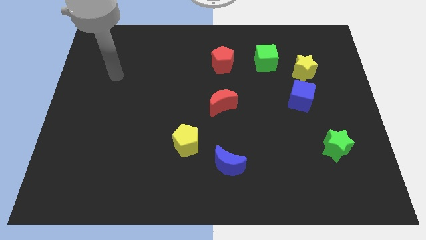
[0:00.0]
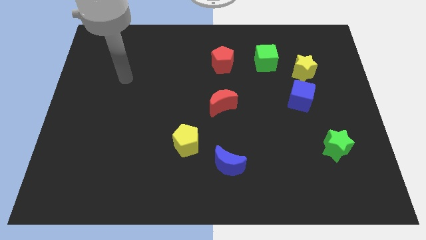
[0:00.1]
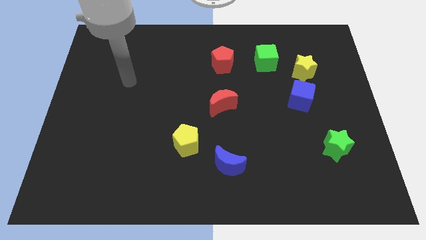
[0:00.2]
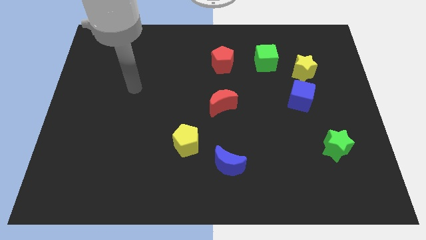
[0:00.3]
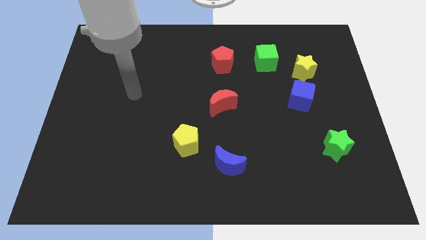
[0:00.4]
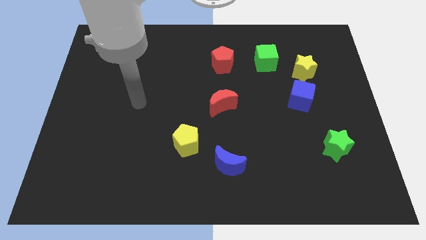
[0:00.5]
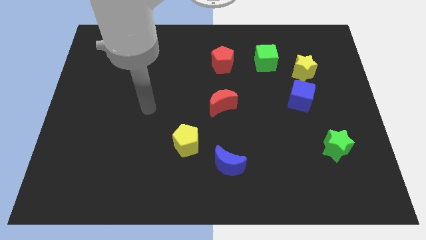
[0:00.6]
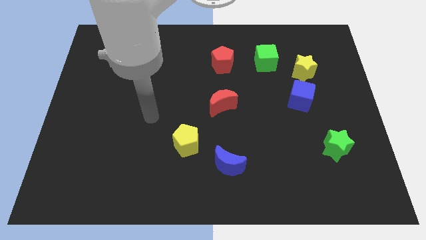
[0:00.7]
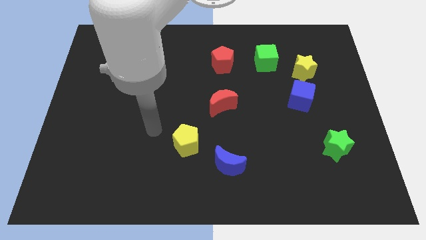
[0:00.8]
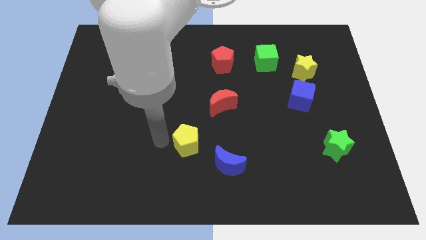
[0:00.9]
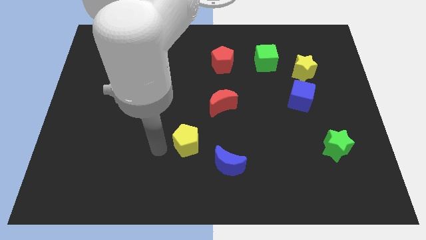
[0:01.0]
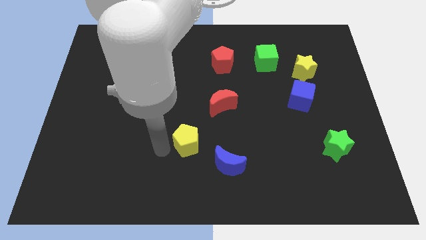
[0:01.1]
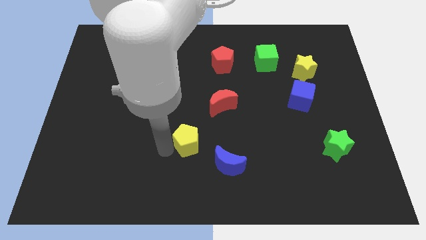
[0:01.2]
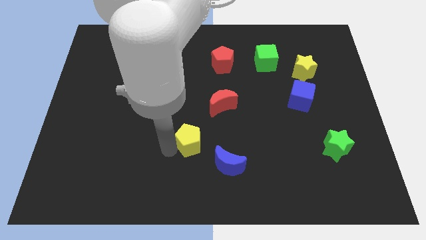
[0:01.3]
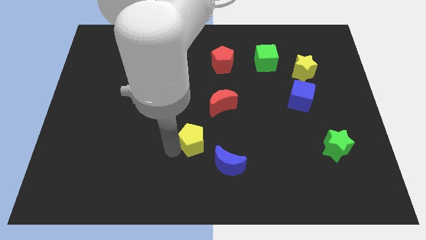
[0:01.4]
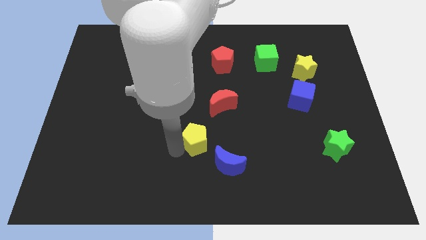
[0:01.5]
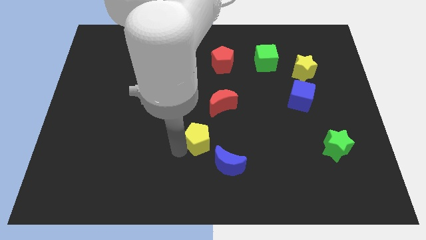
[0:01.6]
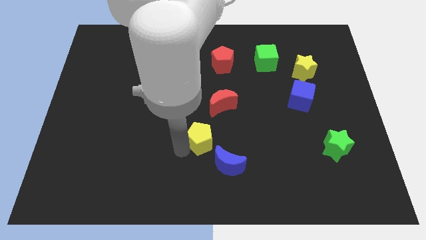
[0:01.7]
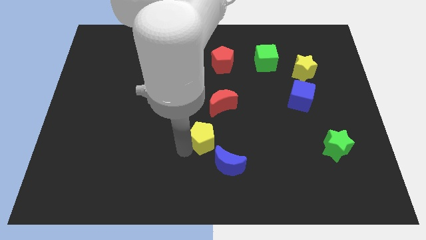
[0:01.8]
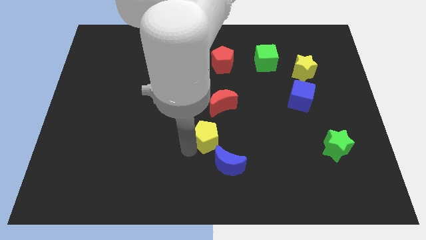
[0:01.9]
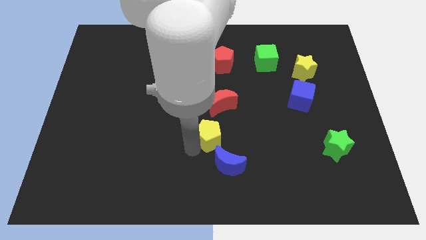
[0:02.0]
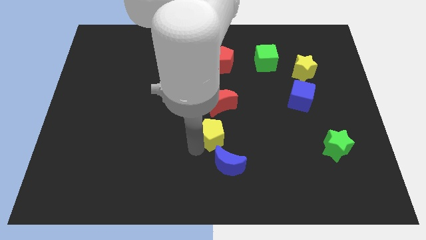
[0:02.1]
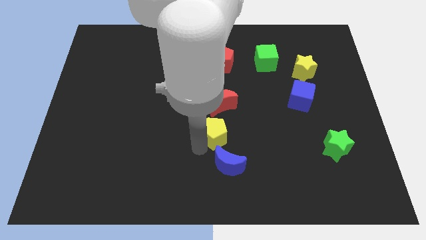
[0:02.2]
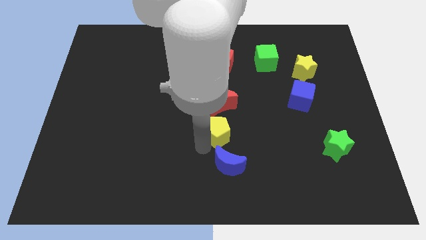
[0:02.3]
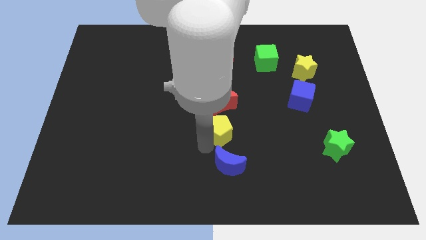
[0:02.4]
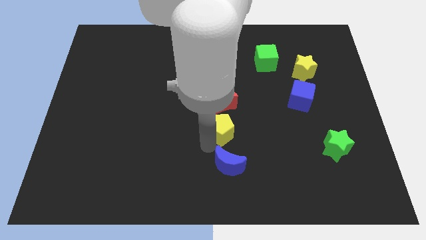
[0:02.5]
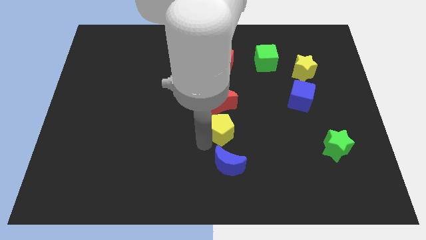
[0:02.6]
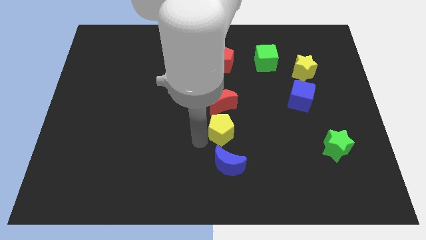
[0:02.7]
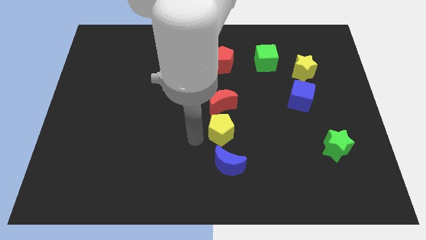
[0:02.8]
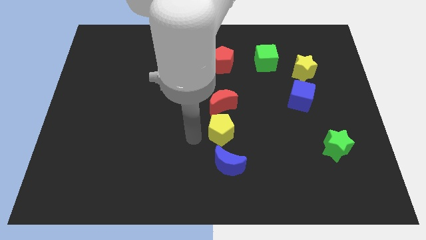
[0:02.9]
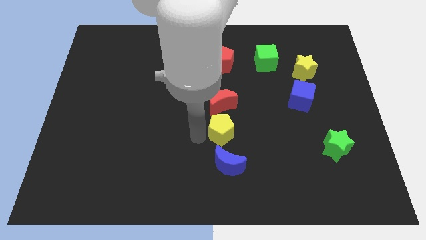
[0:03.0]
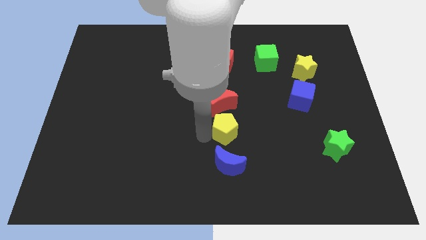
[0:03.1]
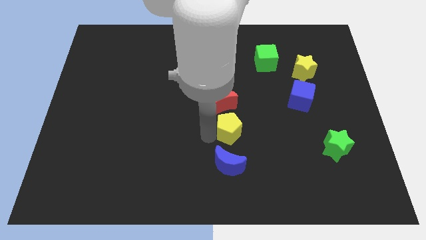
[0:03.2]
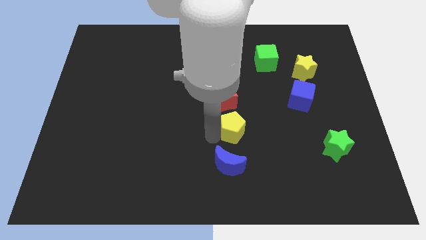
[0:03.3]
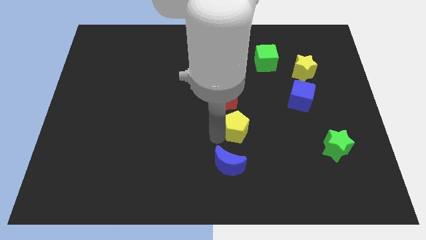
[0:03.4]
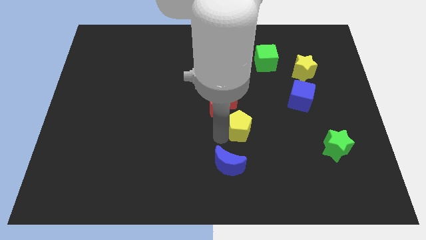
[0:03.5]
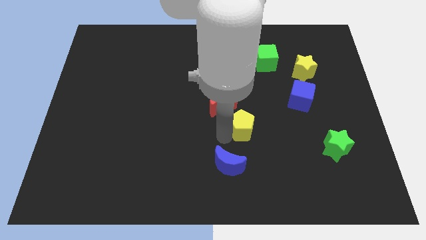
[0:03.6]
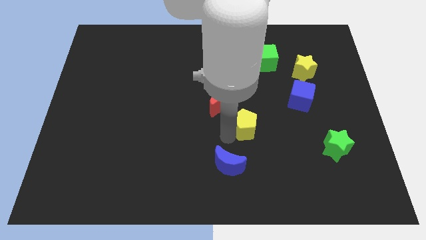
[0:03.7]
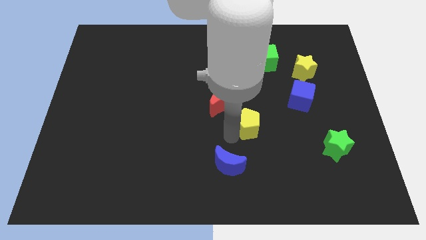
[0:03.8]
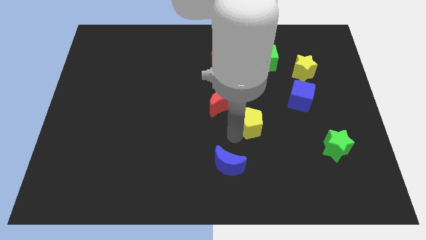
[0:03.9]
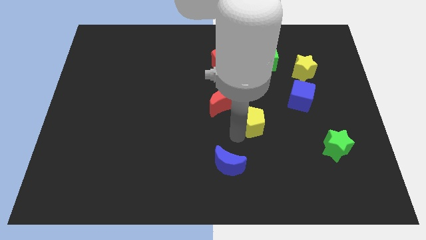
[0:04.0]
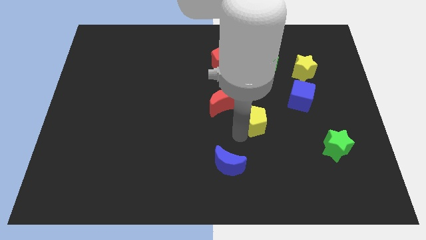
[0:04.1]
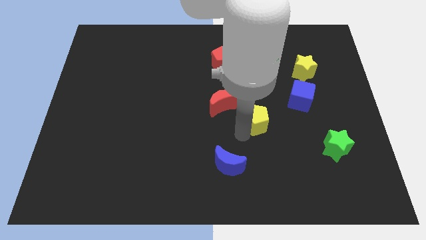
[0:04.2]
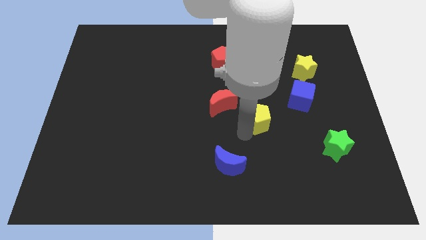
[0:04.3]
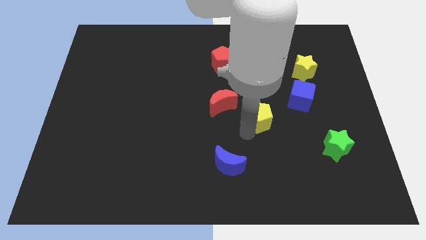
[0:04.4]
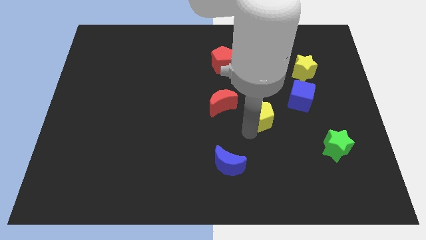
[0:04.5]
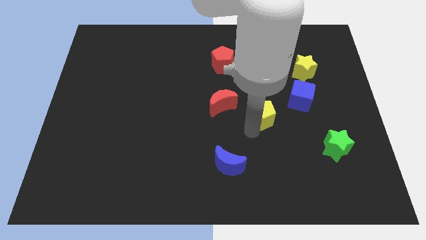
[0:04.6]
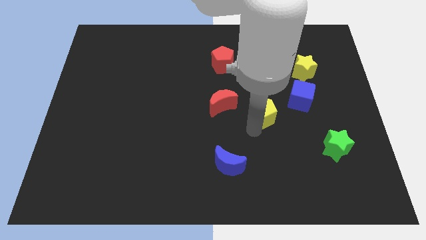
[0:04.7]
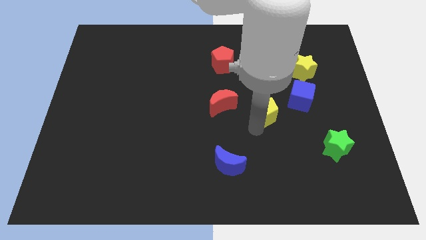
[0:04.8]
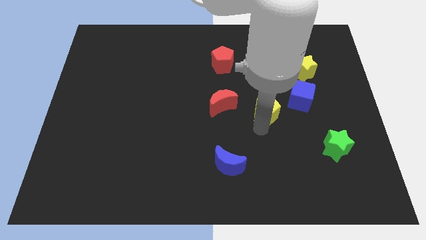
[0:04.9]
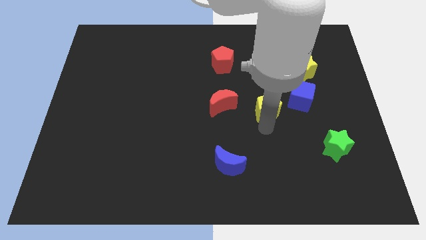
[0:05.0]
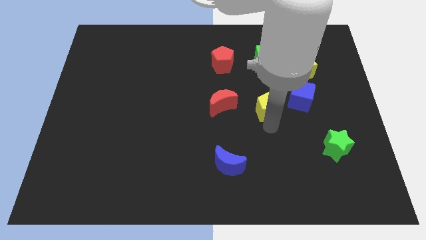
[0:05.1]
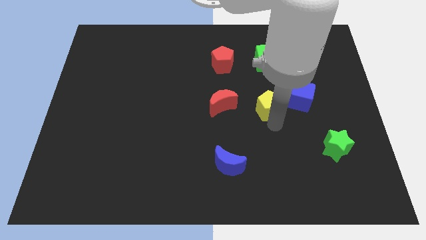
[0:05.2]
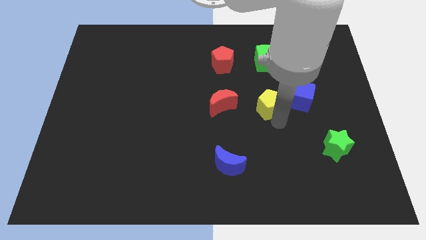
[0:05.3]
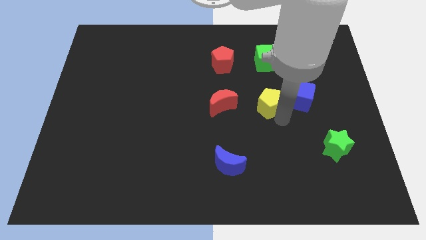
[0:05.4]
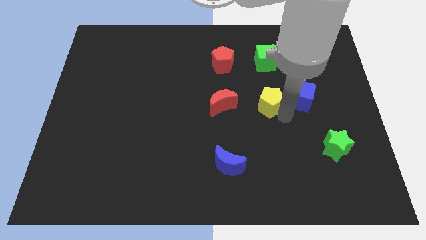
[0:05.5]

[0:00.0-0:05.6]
move the yellow pentagon up and then right

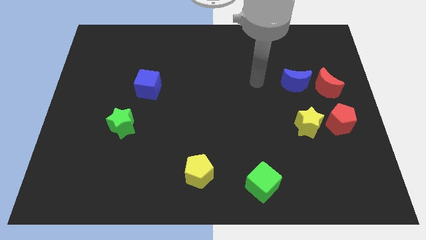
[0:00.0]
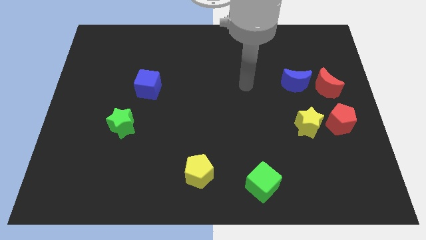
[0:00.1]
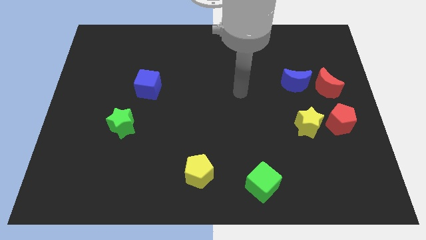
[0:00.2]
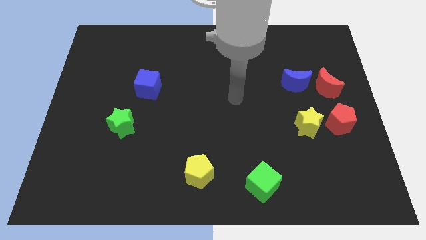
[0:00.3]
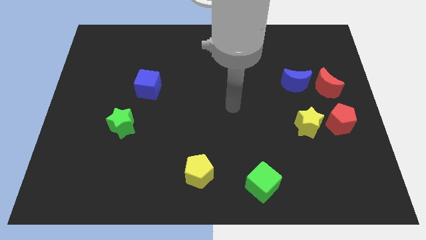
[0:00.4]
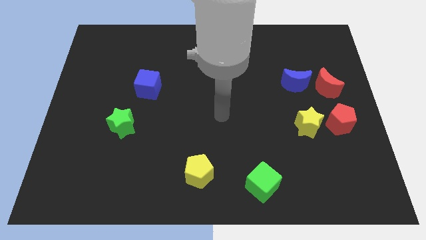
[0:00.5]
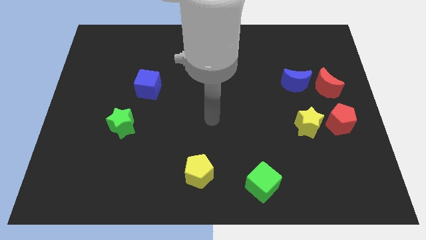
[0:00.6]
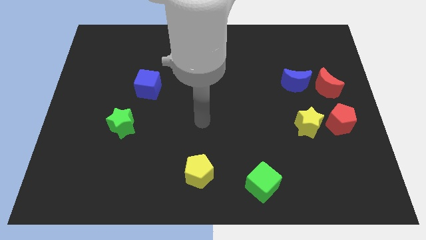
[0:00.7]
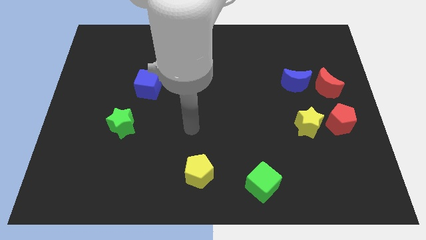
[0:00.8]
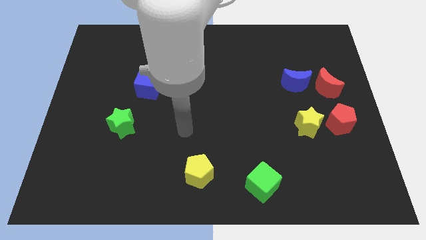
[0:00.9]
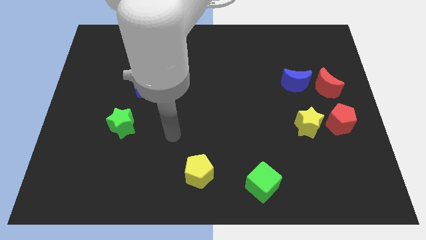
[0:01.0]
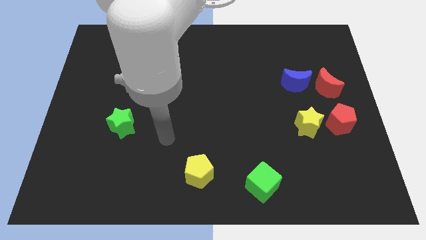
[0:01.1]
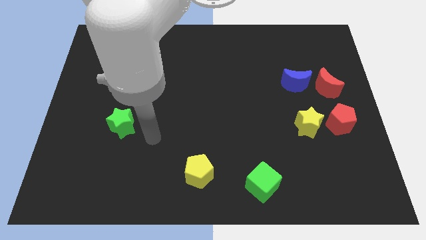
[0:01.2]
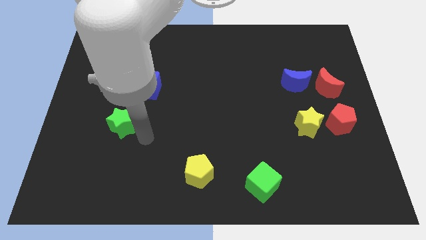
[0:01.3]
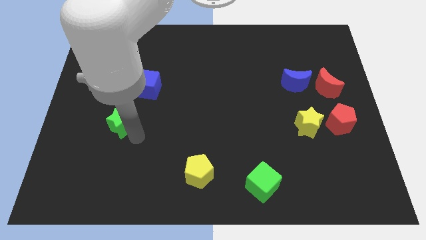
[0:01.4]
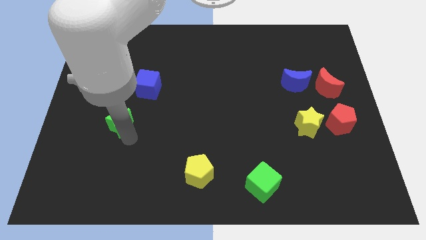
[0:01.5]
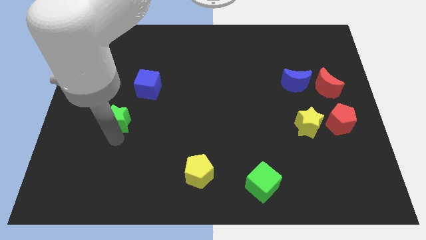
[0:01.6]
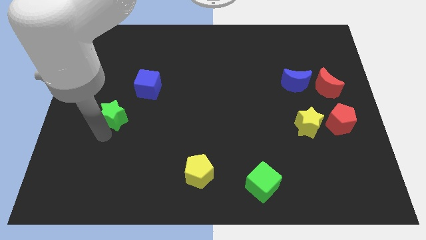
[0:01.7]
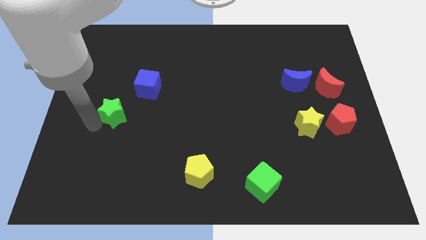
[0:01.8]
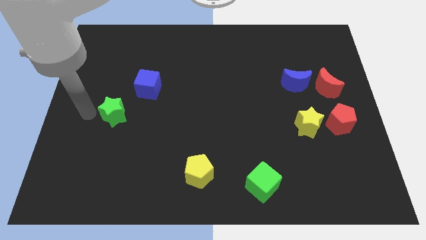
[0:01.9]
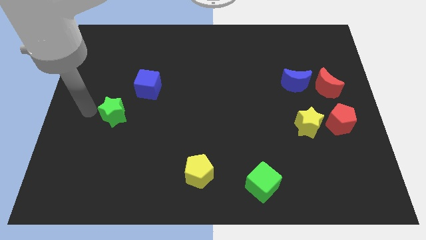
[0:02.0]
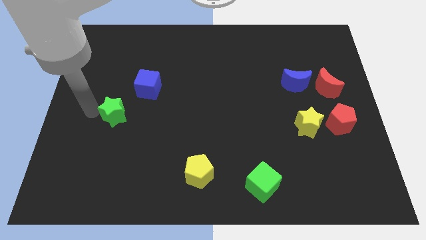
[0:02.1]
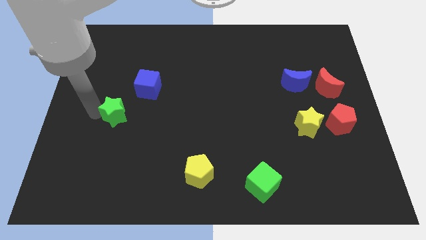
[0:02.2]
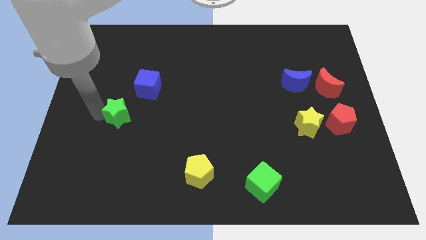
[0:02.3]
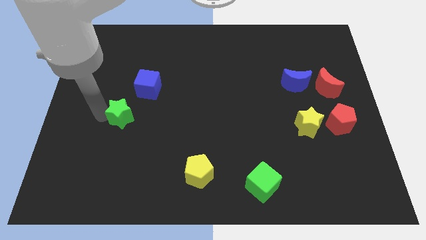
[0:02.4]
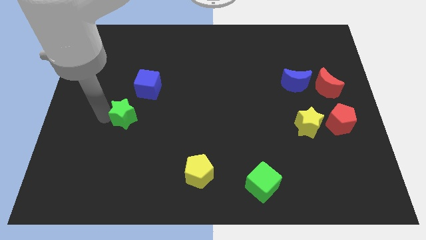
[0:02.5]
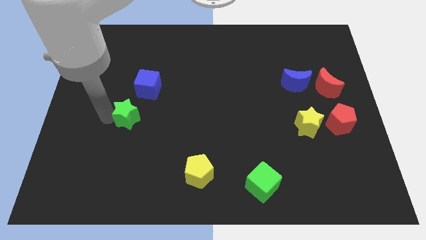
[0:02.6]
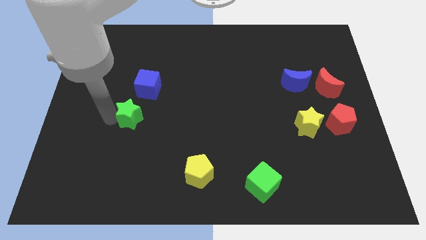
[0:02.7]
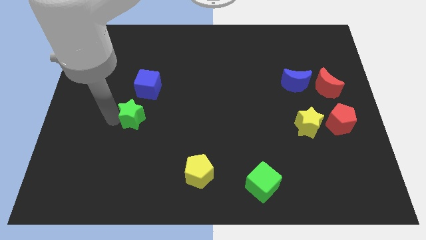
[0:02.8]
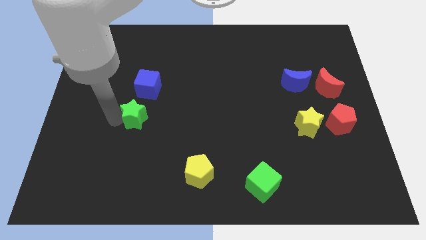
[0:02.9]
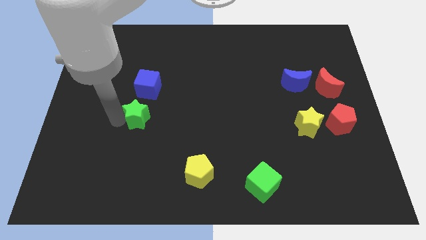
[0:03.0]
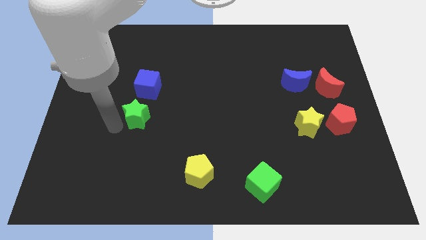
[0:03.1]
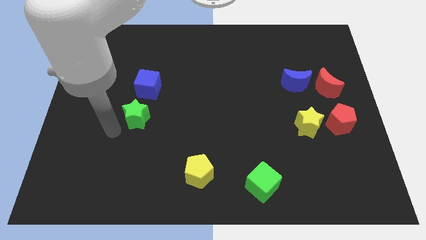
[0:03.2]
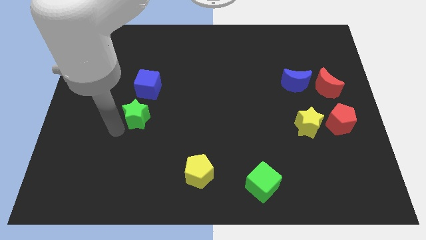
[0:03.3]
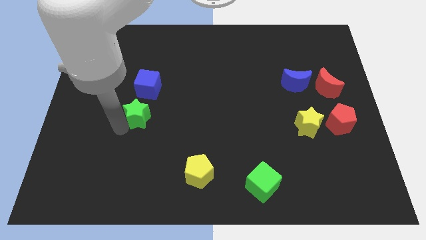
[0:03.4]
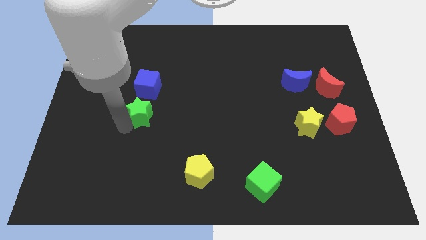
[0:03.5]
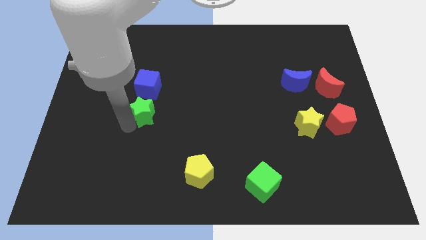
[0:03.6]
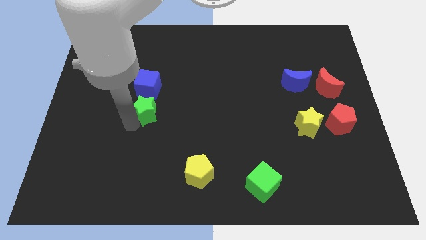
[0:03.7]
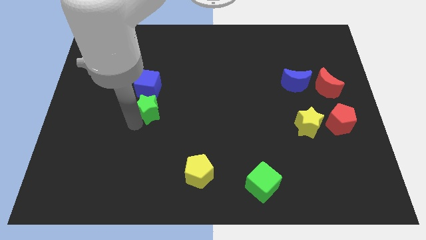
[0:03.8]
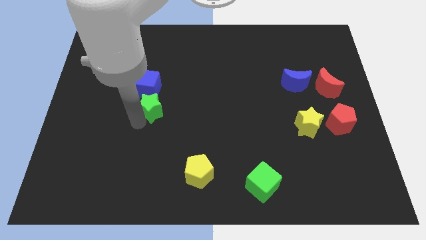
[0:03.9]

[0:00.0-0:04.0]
move the green star somewhat diagonally upwards and to the right
